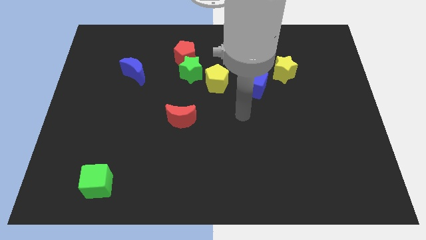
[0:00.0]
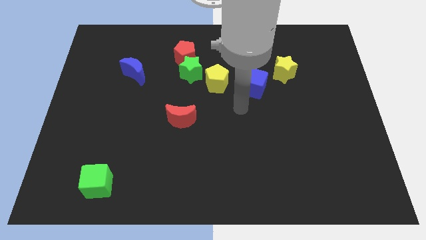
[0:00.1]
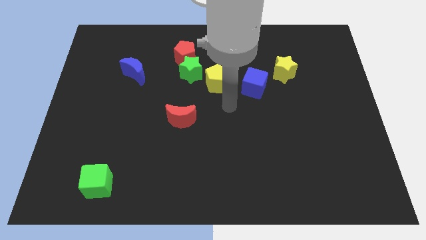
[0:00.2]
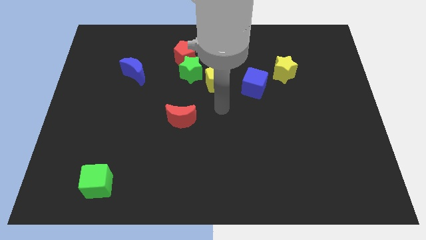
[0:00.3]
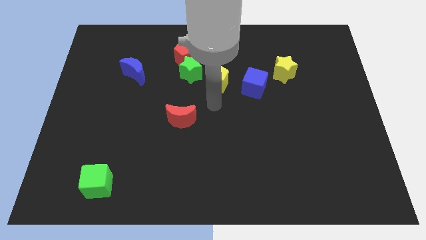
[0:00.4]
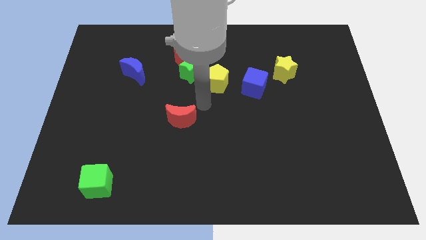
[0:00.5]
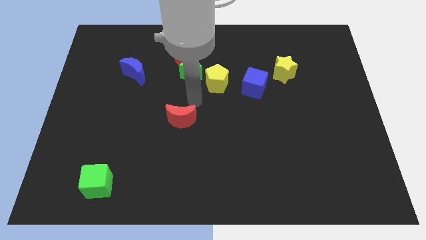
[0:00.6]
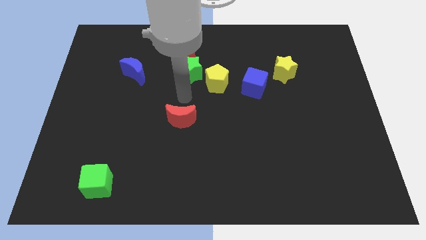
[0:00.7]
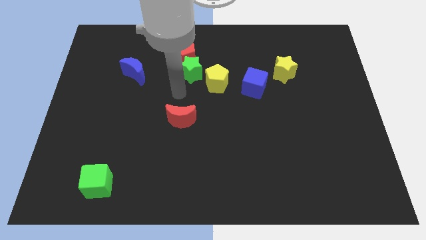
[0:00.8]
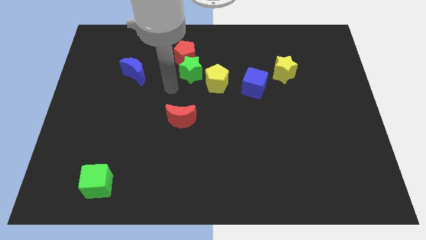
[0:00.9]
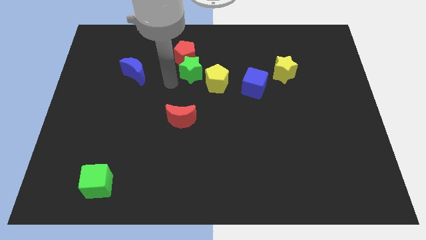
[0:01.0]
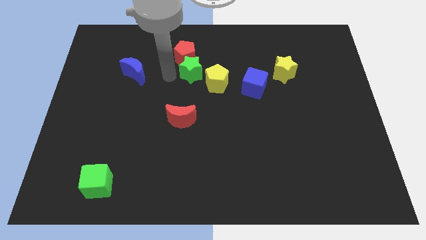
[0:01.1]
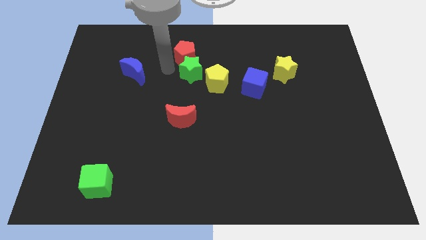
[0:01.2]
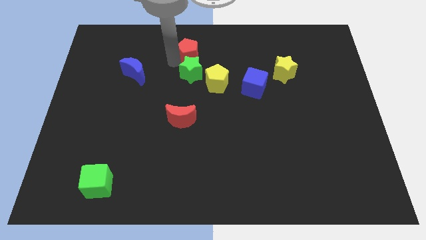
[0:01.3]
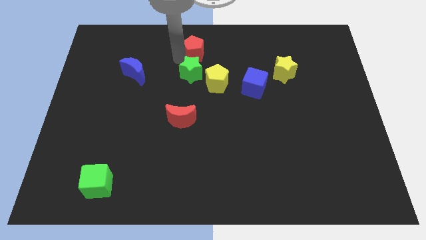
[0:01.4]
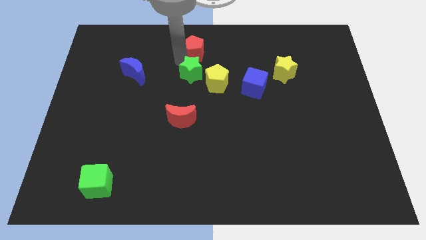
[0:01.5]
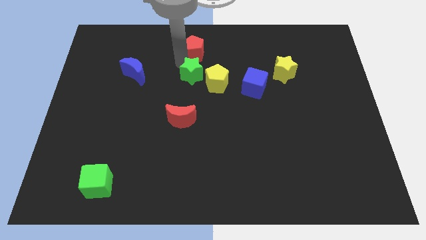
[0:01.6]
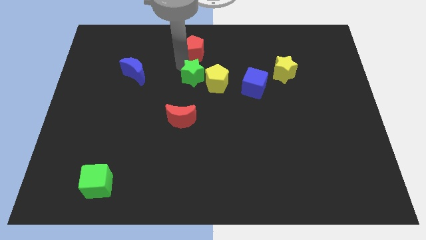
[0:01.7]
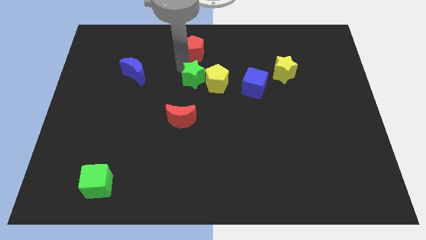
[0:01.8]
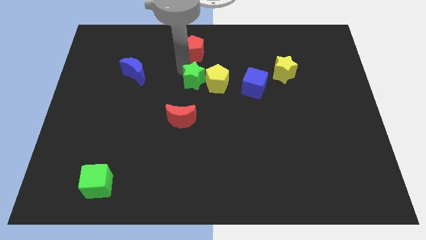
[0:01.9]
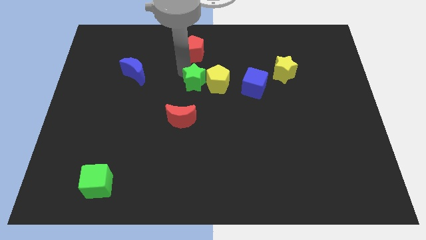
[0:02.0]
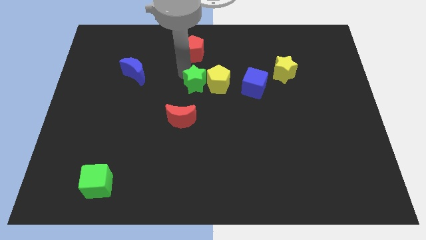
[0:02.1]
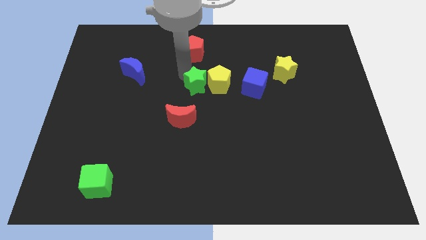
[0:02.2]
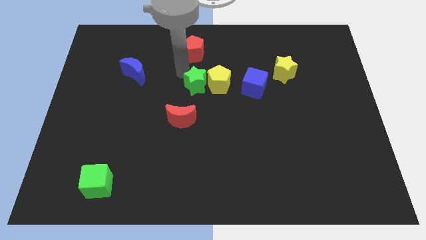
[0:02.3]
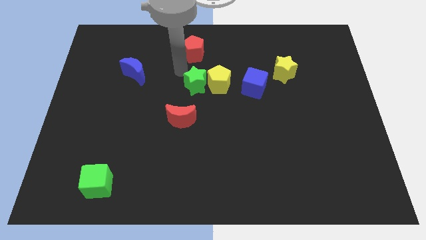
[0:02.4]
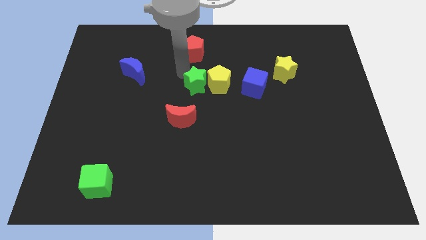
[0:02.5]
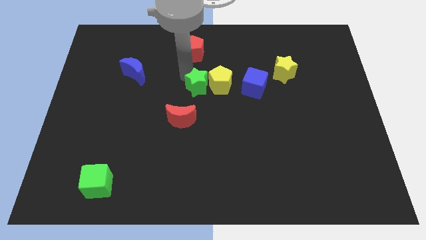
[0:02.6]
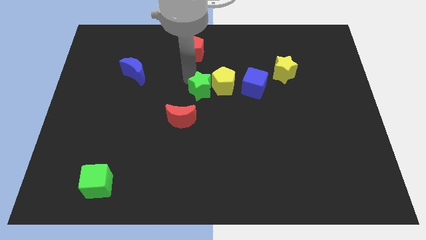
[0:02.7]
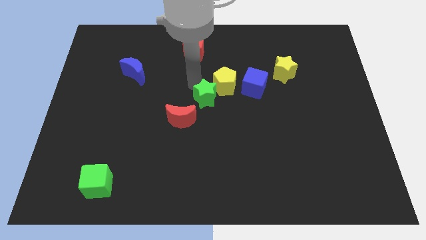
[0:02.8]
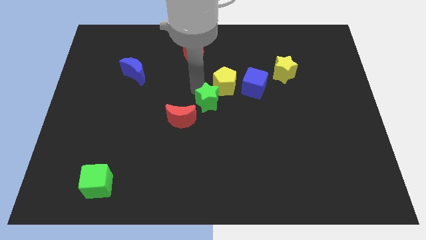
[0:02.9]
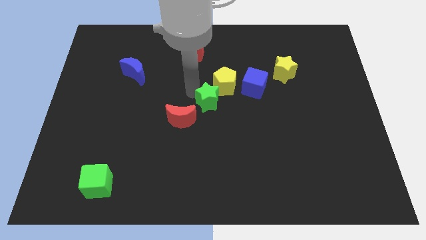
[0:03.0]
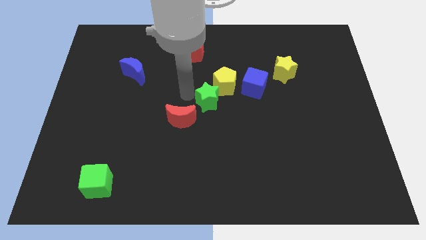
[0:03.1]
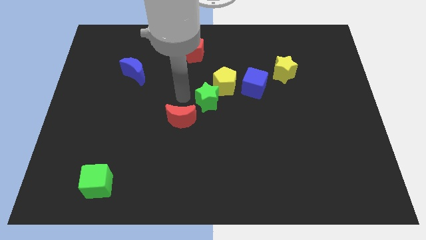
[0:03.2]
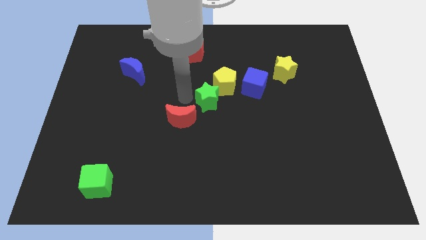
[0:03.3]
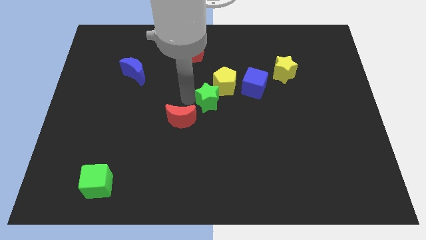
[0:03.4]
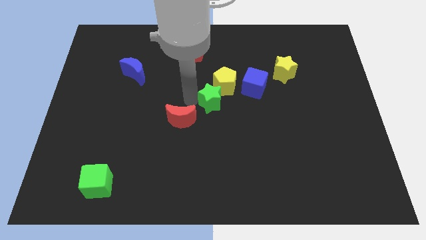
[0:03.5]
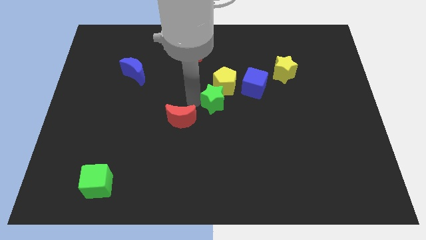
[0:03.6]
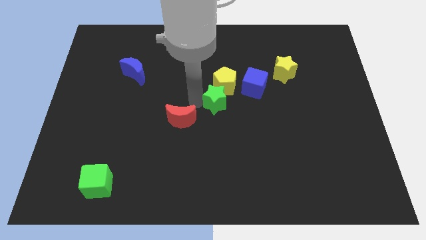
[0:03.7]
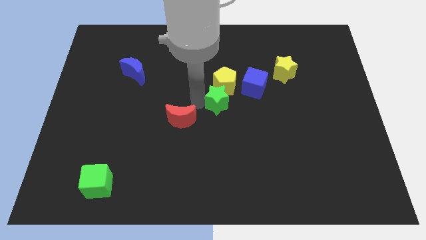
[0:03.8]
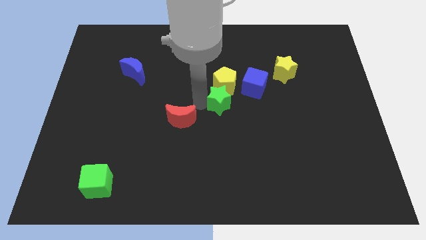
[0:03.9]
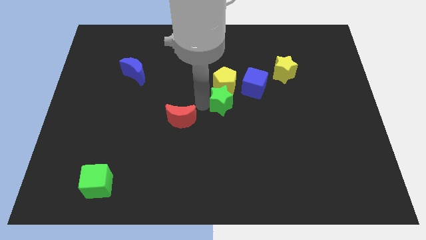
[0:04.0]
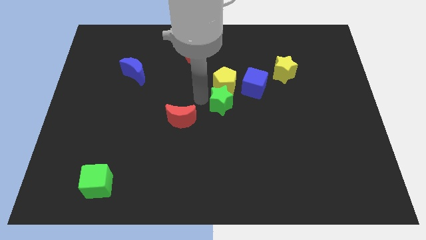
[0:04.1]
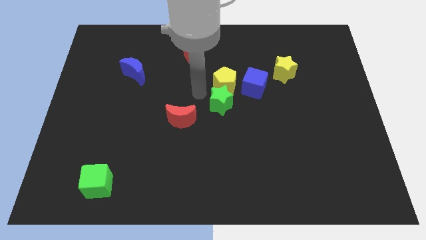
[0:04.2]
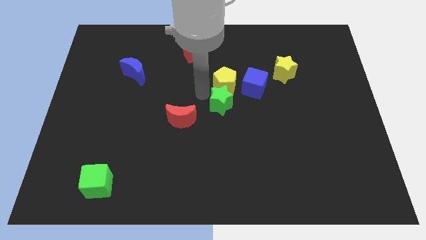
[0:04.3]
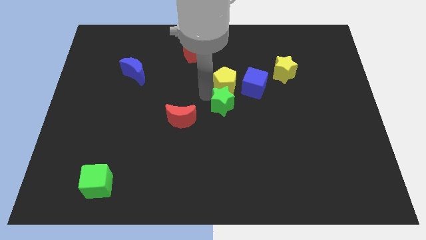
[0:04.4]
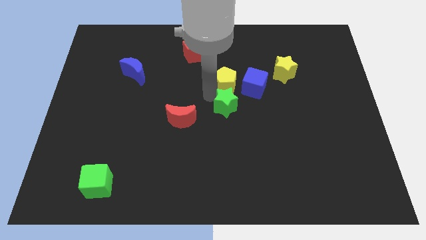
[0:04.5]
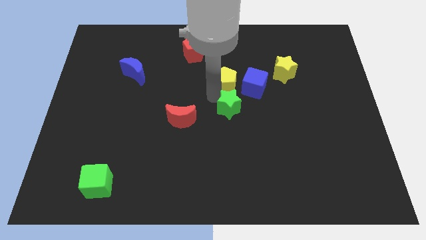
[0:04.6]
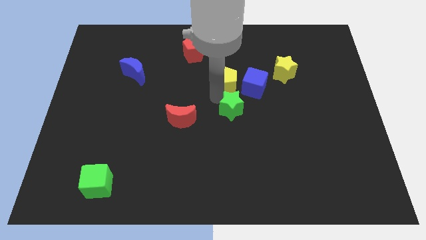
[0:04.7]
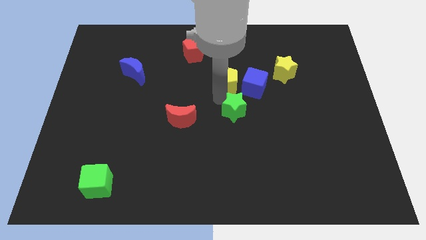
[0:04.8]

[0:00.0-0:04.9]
push the green star to the bottom side of the blue cube

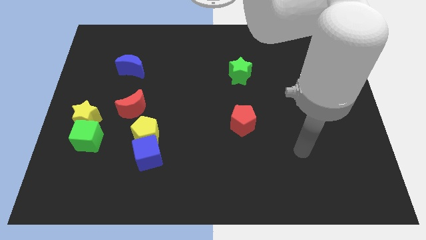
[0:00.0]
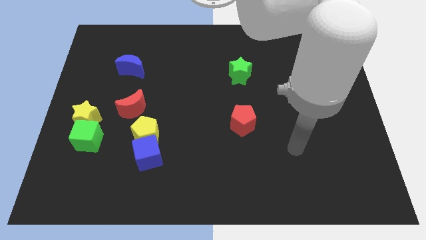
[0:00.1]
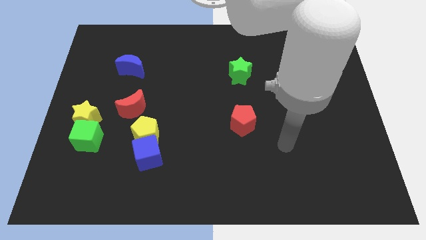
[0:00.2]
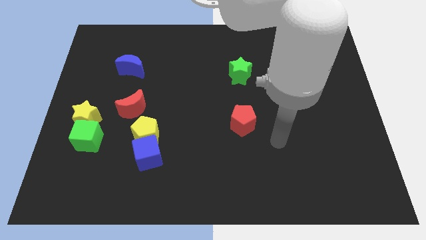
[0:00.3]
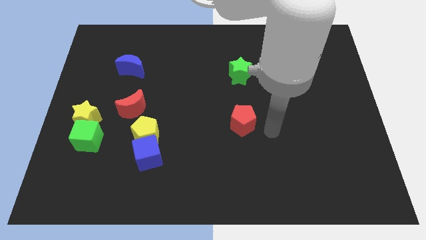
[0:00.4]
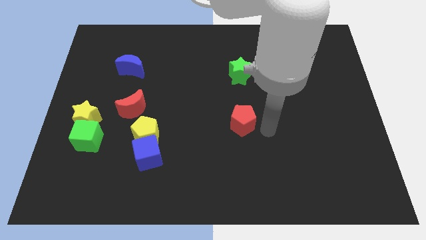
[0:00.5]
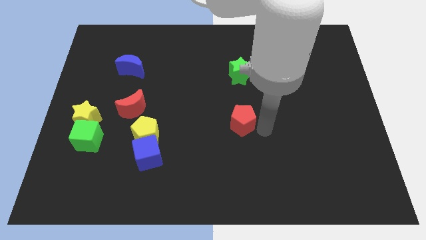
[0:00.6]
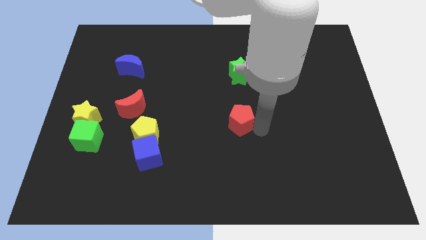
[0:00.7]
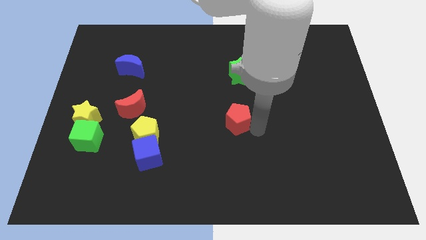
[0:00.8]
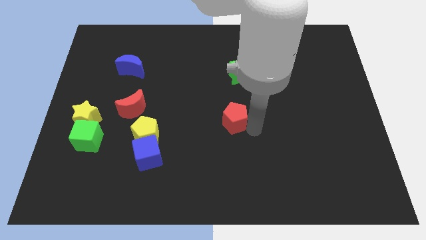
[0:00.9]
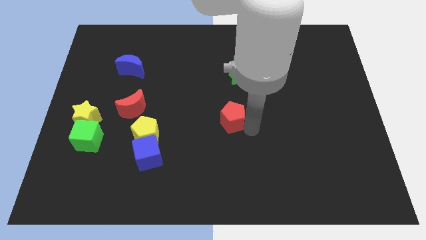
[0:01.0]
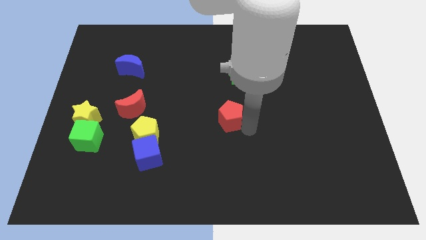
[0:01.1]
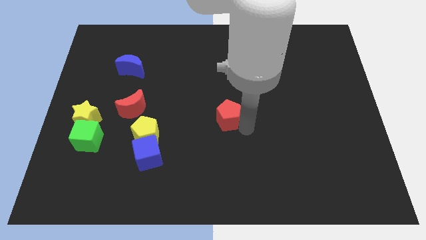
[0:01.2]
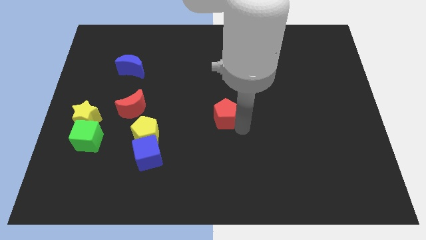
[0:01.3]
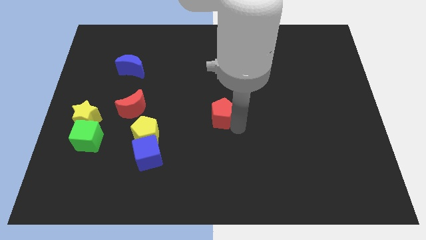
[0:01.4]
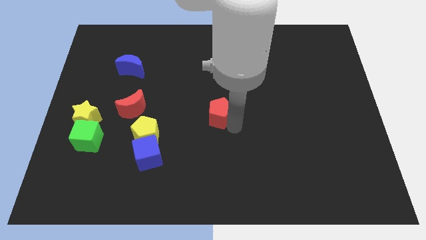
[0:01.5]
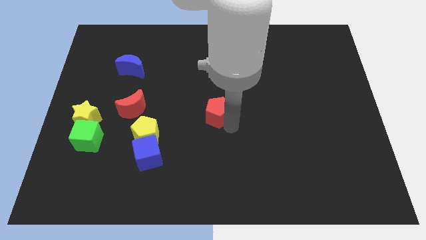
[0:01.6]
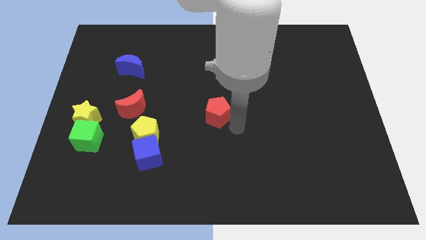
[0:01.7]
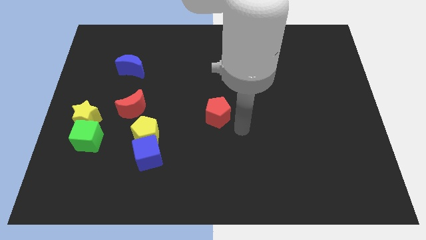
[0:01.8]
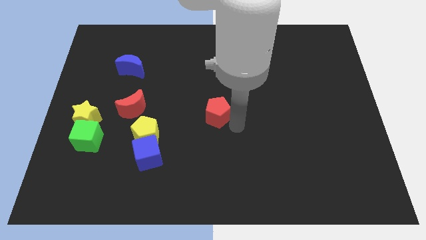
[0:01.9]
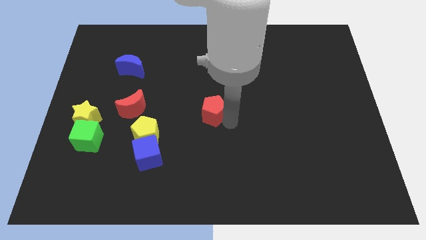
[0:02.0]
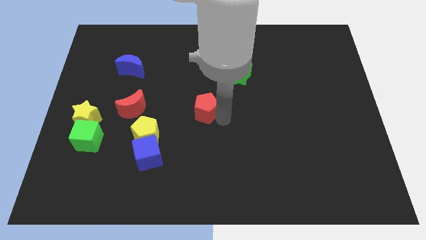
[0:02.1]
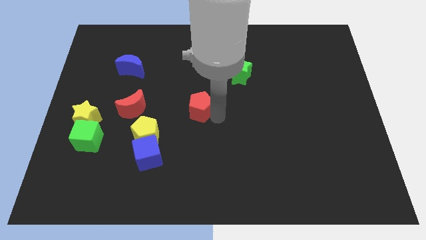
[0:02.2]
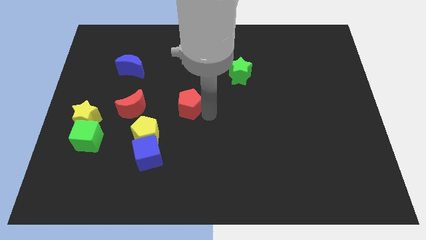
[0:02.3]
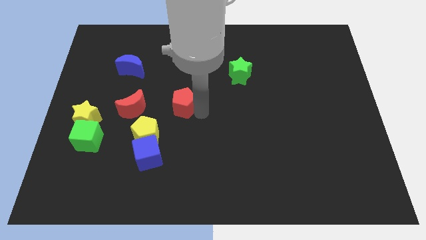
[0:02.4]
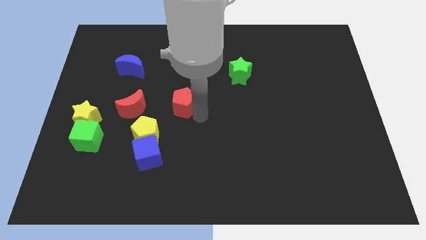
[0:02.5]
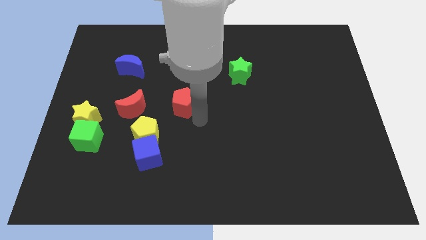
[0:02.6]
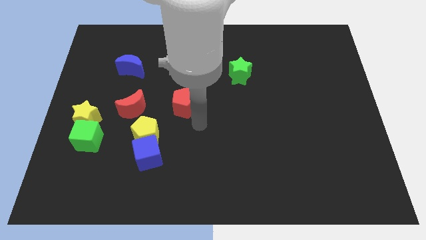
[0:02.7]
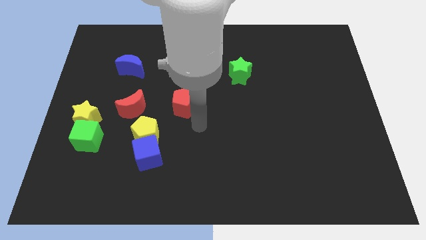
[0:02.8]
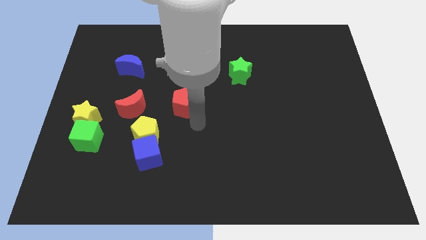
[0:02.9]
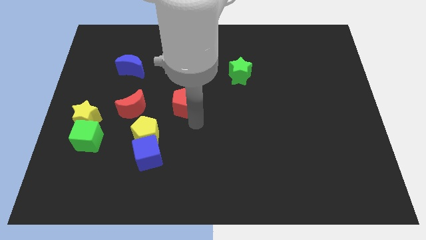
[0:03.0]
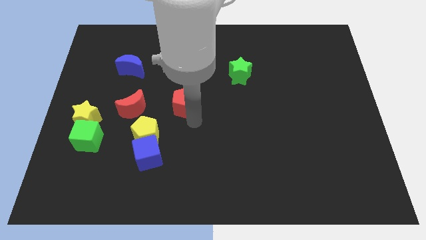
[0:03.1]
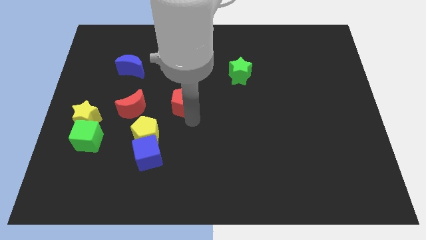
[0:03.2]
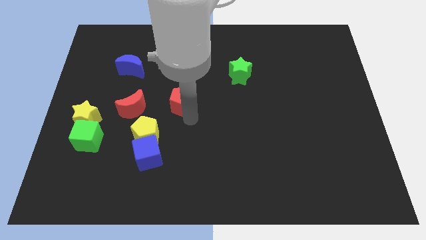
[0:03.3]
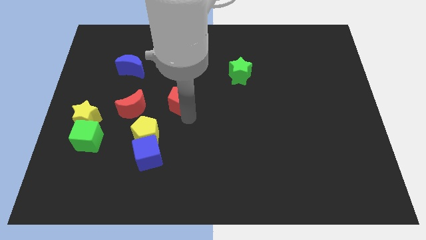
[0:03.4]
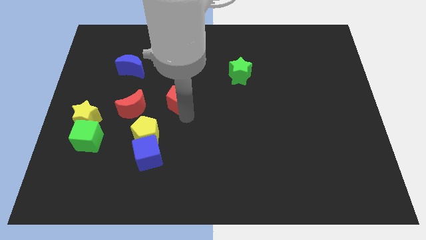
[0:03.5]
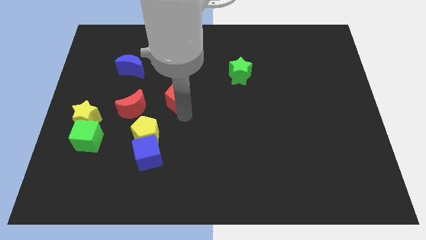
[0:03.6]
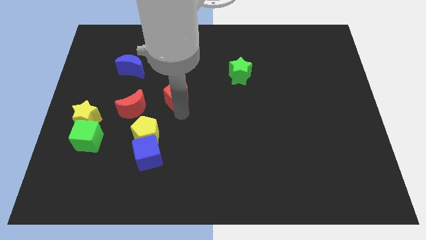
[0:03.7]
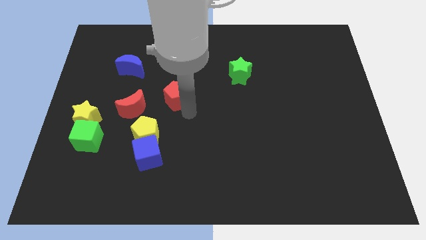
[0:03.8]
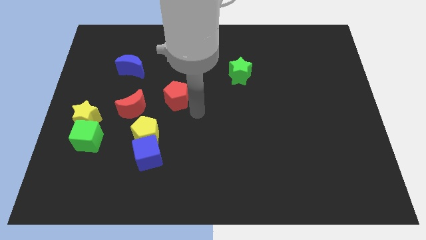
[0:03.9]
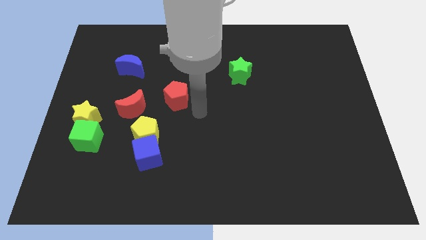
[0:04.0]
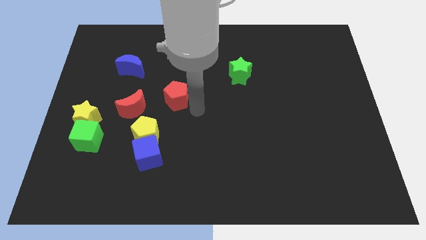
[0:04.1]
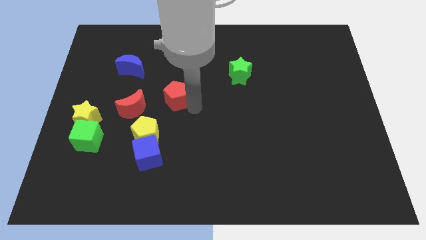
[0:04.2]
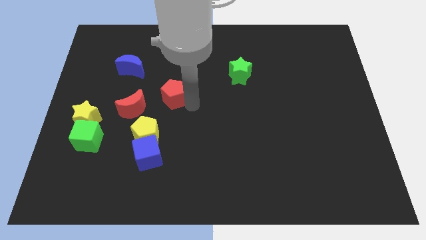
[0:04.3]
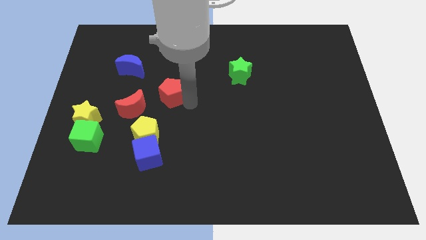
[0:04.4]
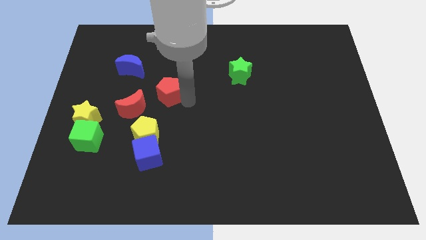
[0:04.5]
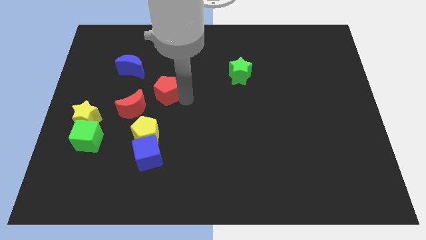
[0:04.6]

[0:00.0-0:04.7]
put the red pentagon to the bottom right of the blue moon
